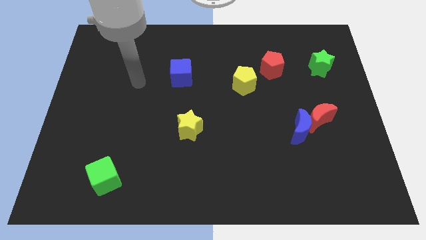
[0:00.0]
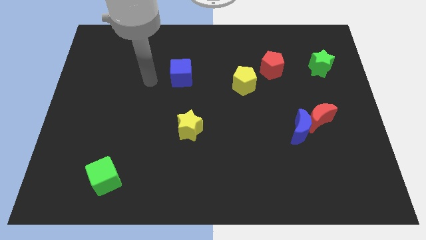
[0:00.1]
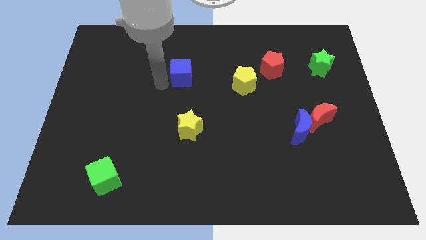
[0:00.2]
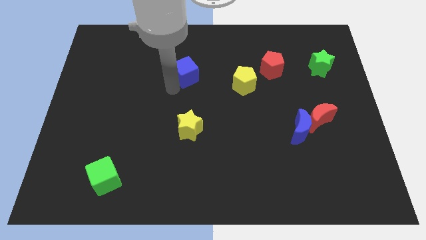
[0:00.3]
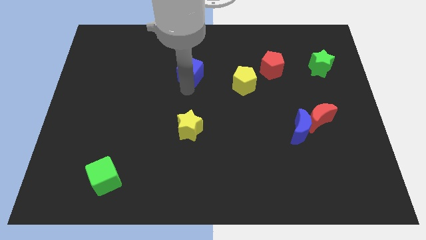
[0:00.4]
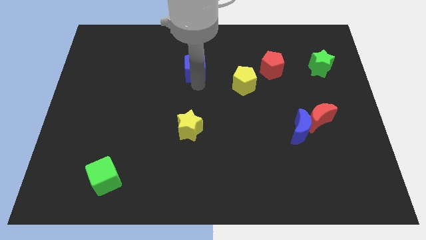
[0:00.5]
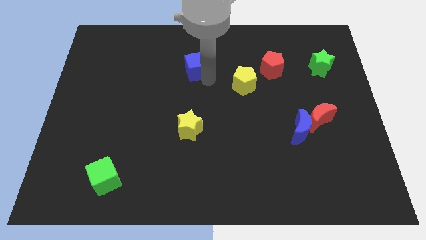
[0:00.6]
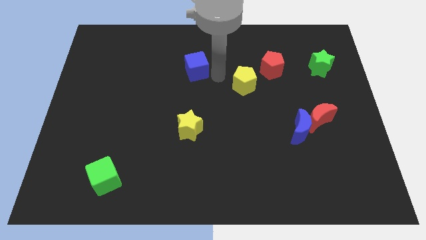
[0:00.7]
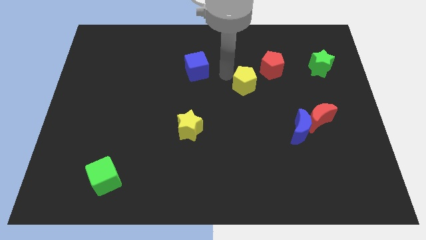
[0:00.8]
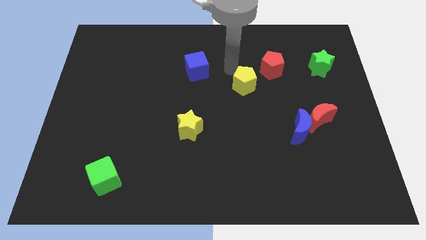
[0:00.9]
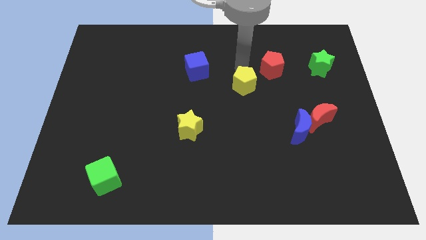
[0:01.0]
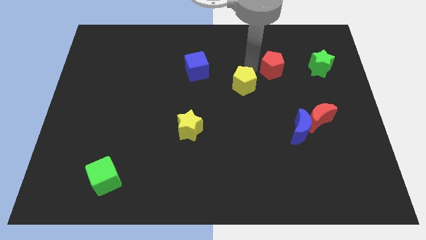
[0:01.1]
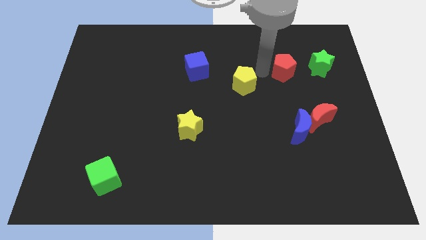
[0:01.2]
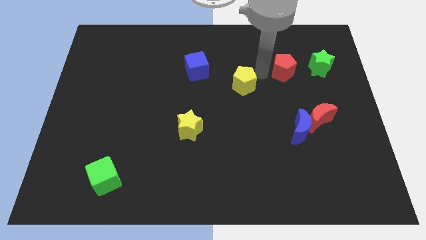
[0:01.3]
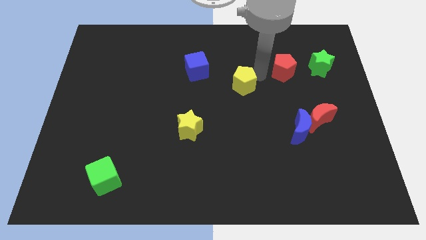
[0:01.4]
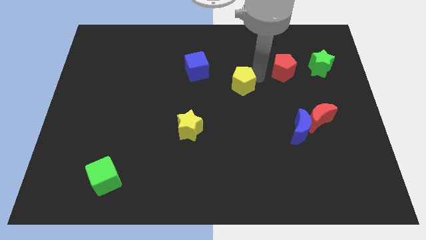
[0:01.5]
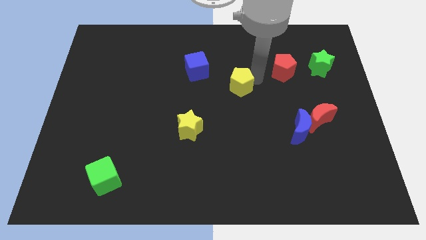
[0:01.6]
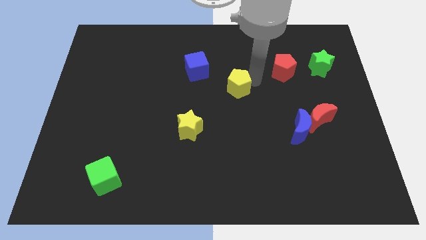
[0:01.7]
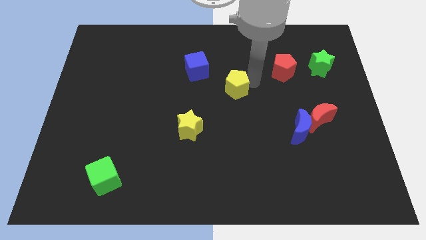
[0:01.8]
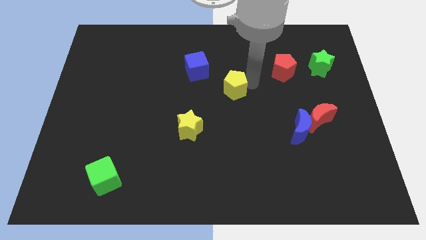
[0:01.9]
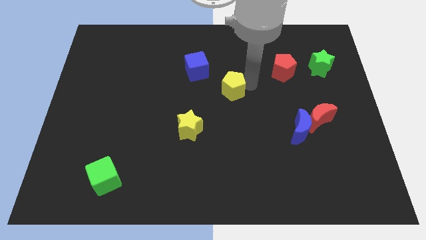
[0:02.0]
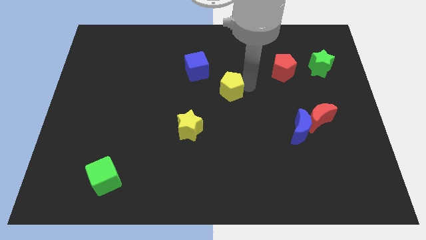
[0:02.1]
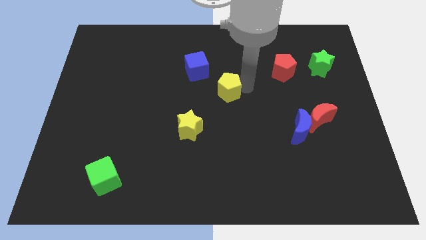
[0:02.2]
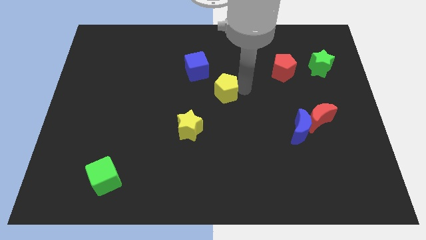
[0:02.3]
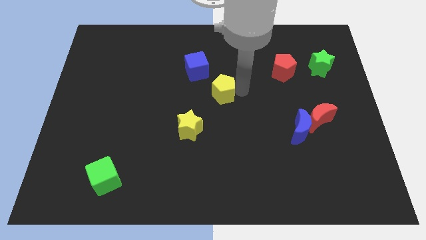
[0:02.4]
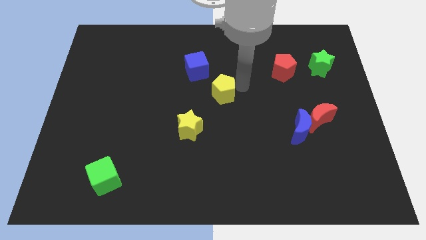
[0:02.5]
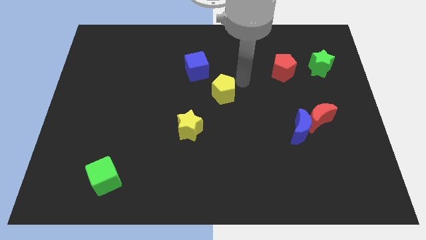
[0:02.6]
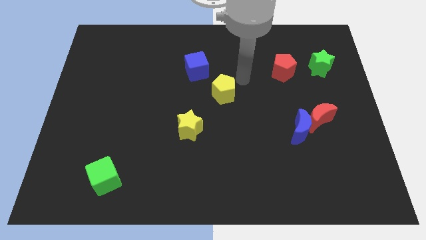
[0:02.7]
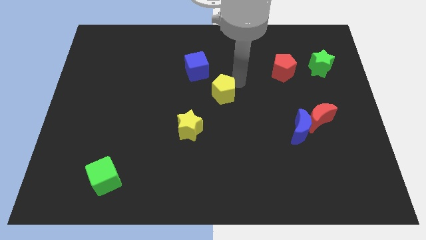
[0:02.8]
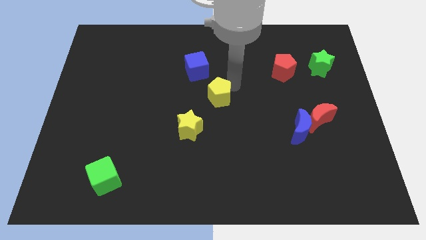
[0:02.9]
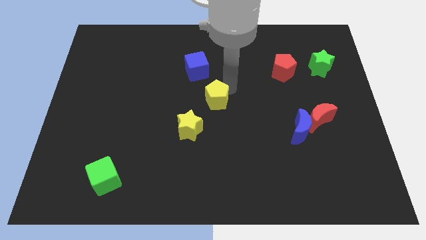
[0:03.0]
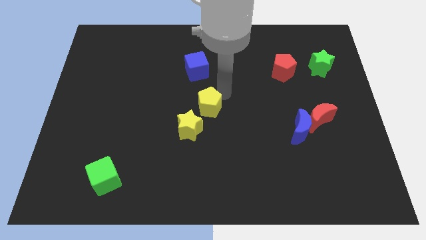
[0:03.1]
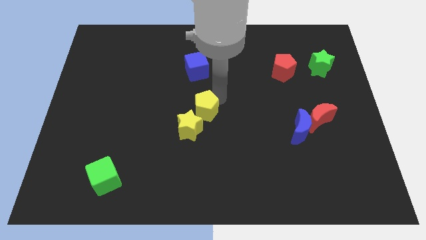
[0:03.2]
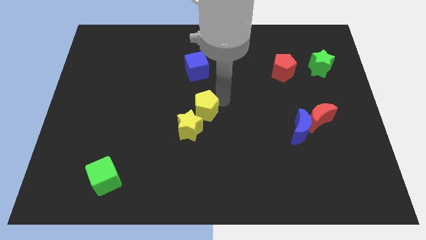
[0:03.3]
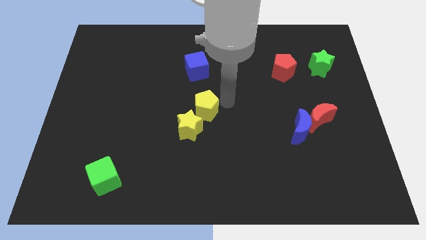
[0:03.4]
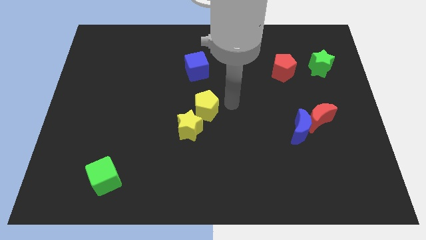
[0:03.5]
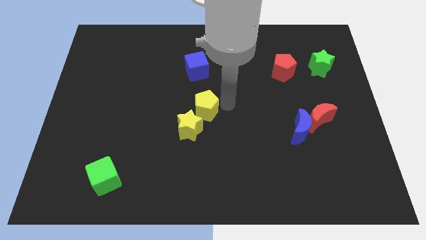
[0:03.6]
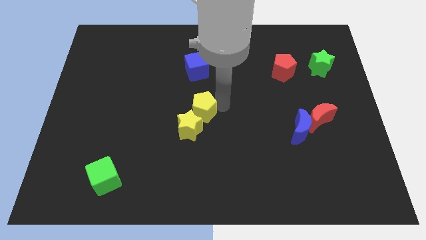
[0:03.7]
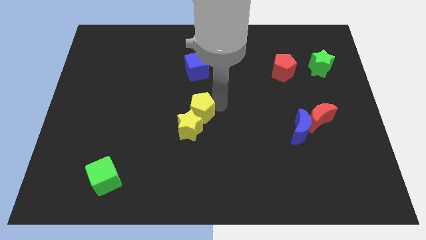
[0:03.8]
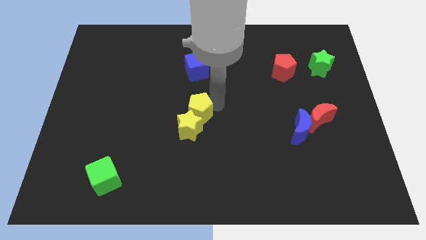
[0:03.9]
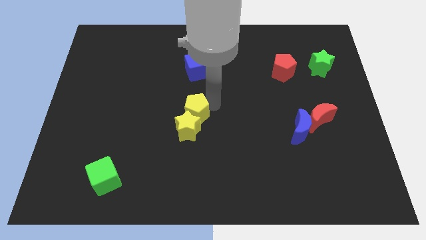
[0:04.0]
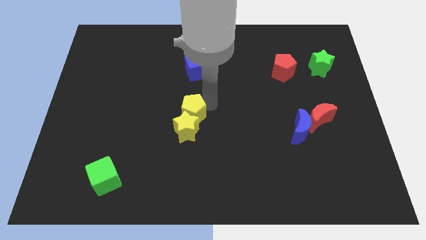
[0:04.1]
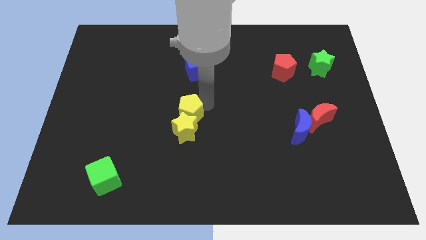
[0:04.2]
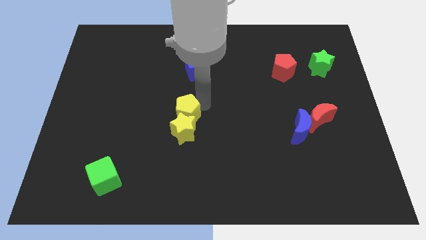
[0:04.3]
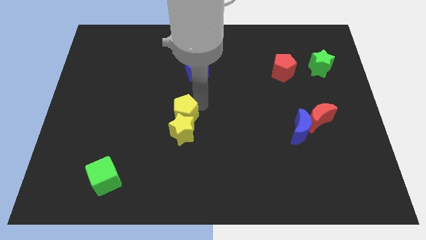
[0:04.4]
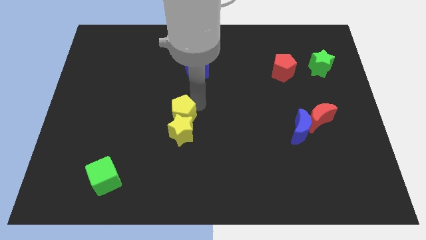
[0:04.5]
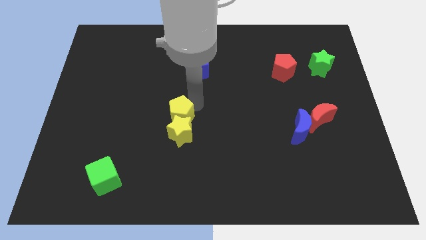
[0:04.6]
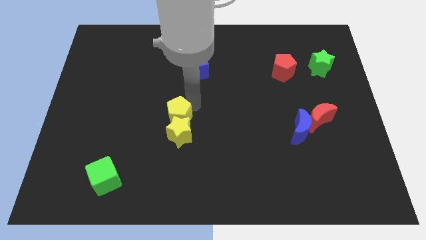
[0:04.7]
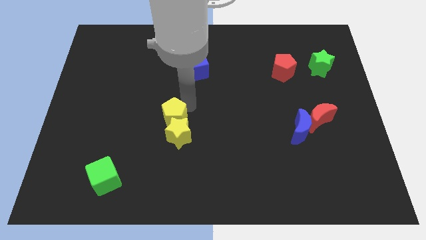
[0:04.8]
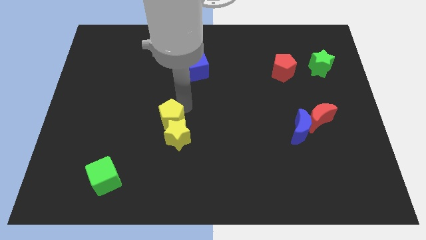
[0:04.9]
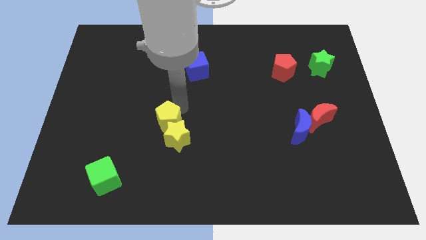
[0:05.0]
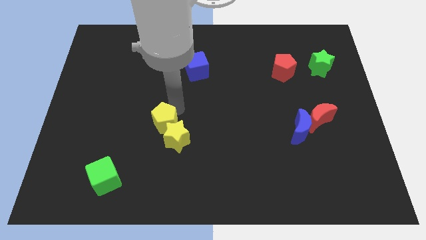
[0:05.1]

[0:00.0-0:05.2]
move the yellow pentagon left of the yellow star

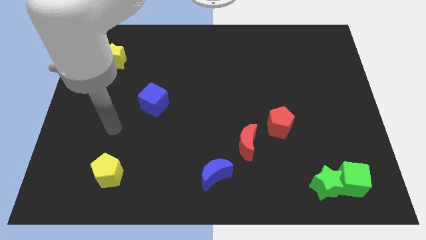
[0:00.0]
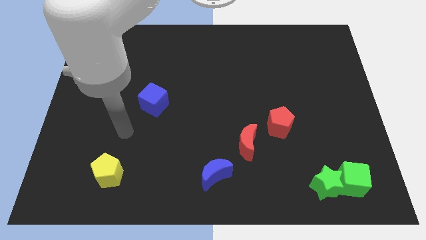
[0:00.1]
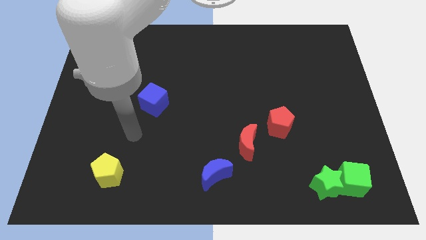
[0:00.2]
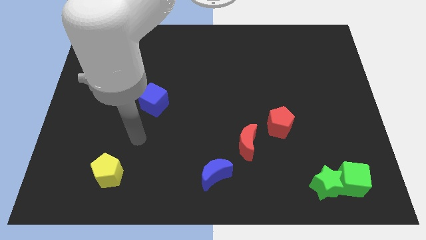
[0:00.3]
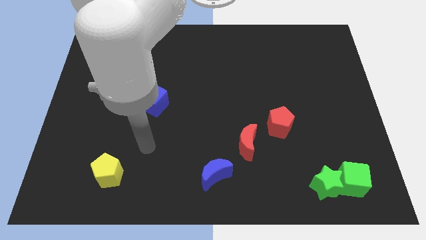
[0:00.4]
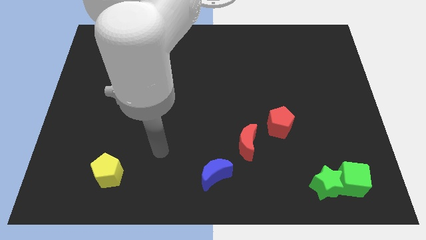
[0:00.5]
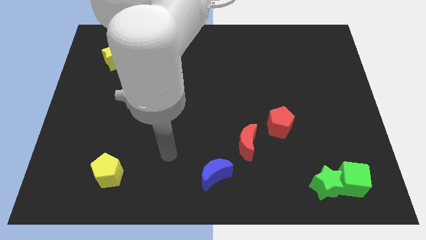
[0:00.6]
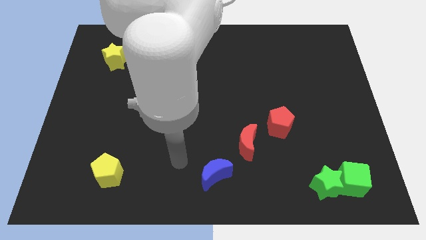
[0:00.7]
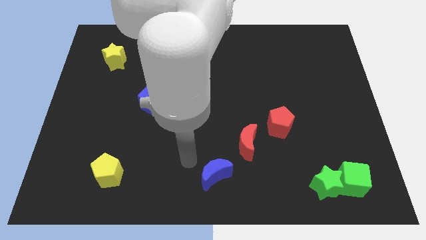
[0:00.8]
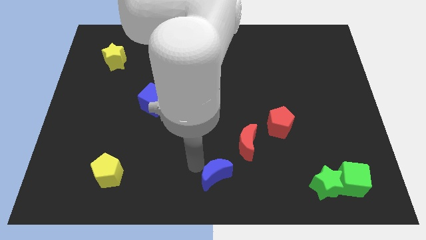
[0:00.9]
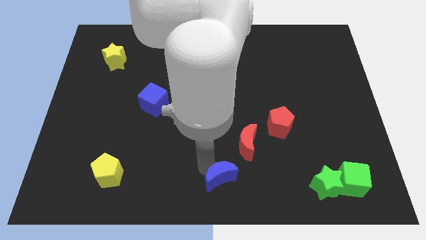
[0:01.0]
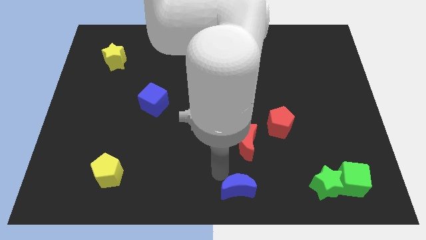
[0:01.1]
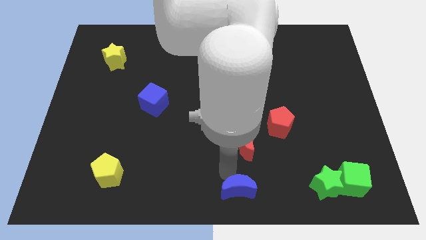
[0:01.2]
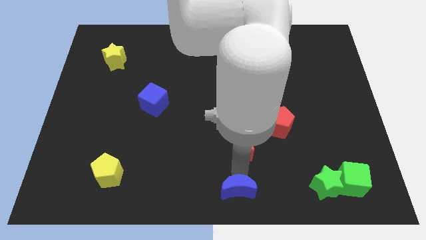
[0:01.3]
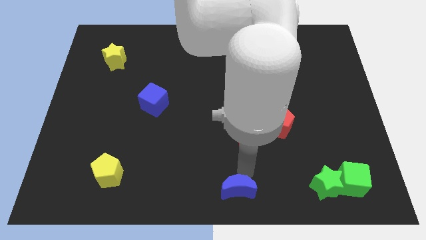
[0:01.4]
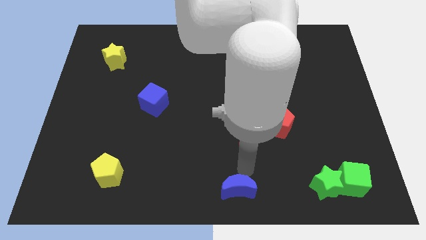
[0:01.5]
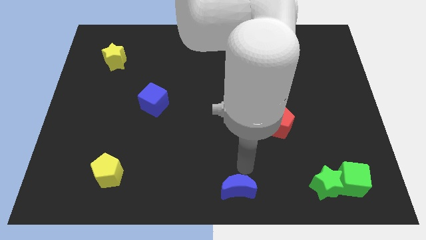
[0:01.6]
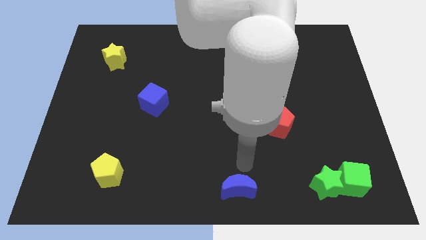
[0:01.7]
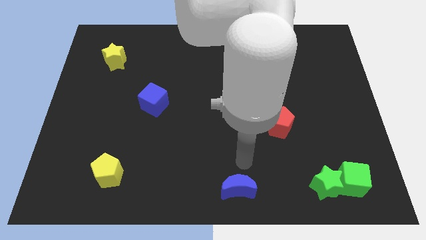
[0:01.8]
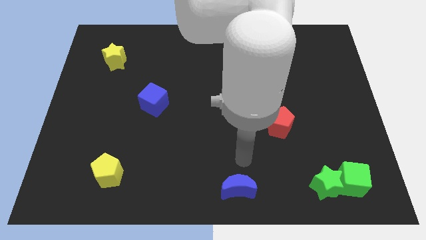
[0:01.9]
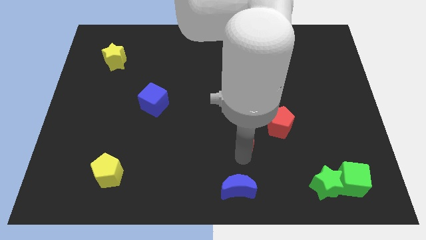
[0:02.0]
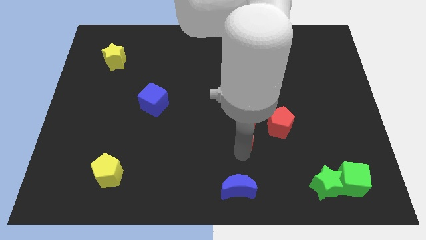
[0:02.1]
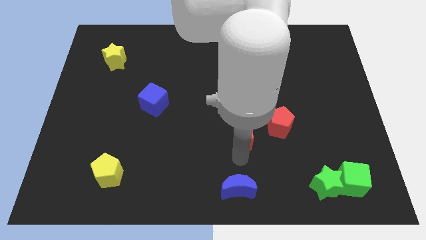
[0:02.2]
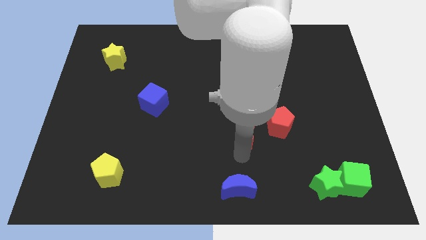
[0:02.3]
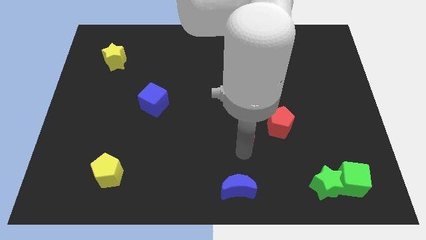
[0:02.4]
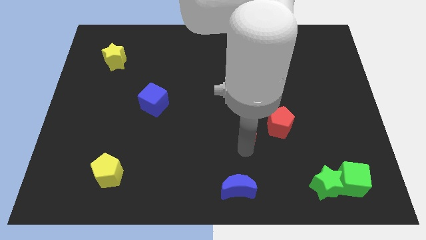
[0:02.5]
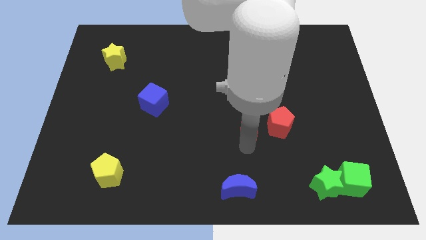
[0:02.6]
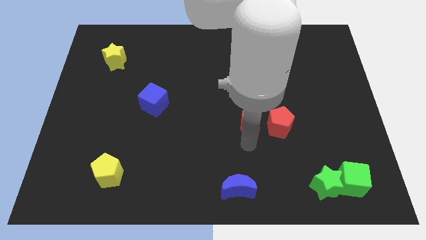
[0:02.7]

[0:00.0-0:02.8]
put the red moon diagonally up and to the left of the red pentagon

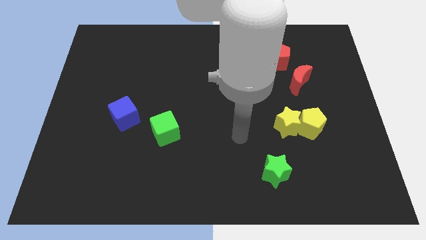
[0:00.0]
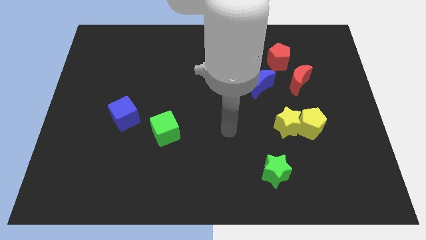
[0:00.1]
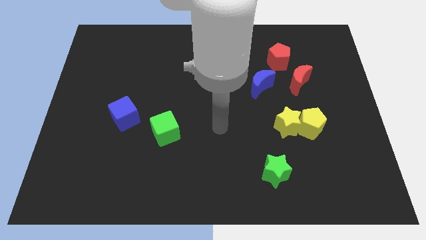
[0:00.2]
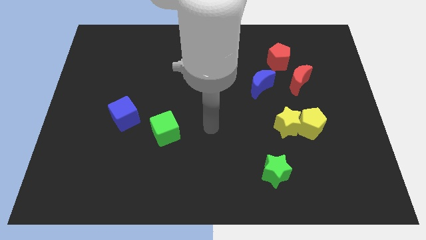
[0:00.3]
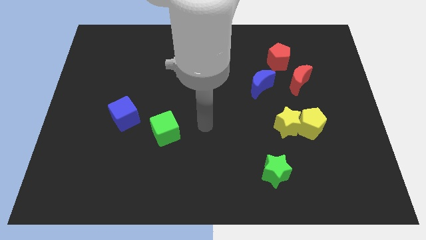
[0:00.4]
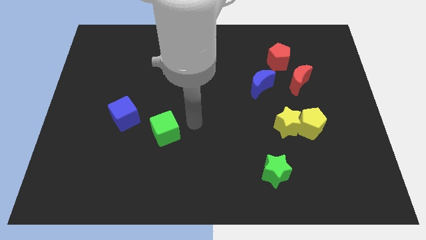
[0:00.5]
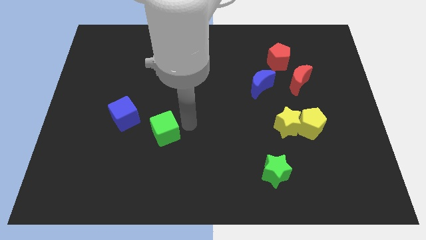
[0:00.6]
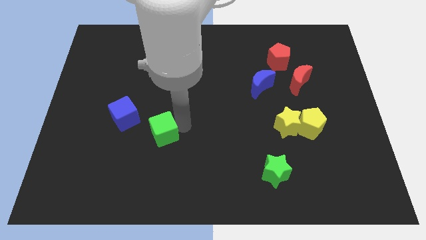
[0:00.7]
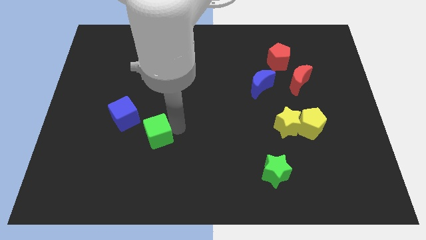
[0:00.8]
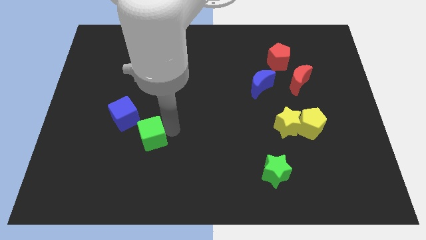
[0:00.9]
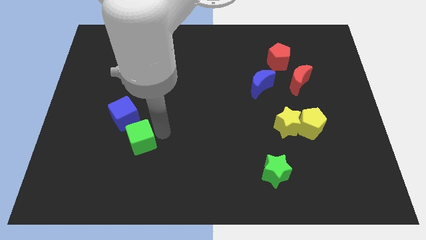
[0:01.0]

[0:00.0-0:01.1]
put the green cube to the bottom side of the blue cube
